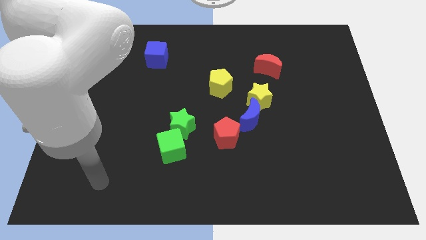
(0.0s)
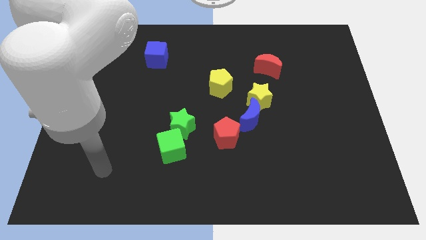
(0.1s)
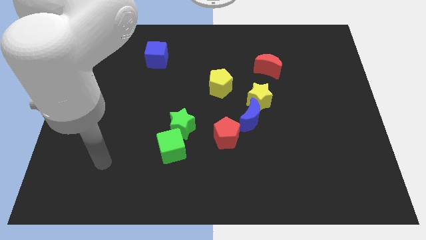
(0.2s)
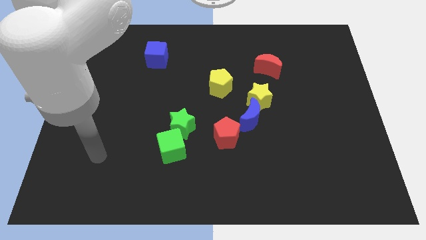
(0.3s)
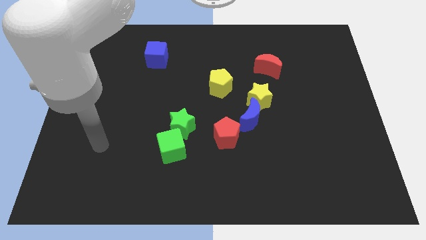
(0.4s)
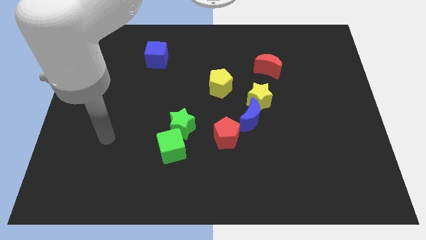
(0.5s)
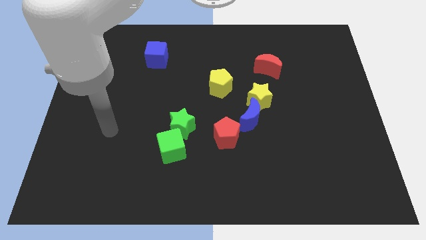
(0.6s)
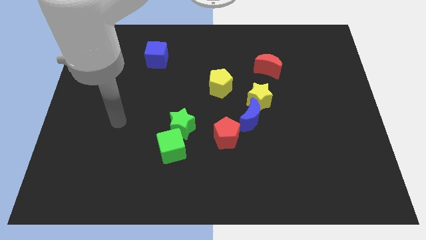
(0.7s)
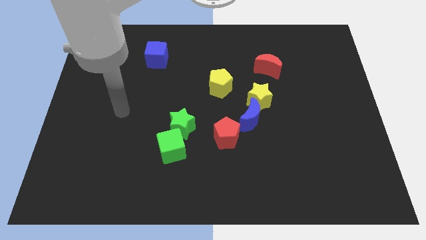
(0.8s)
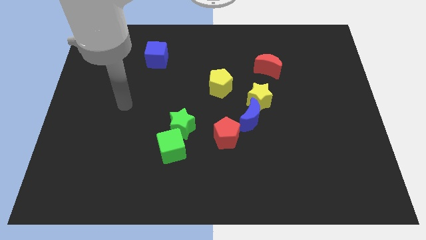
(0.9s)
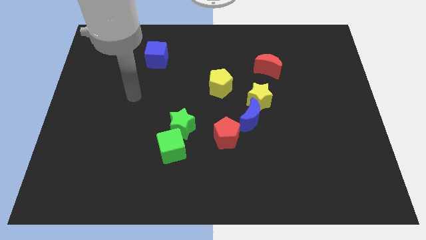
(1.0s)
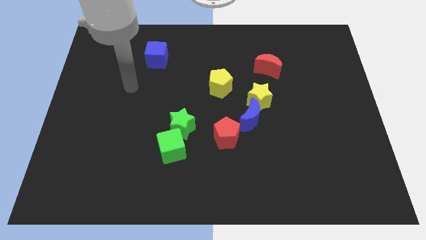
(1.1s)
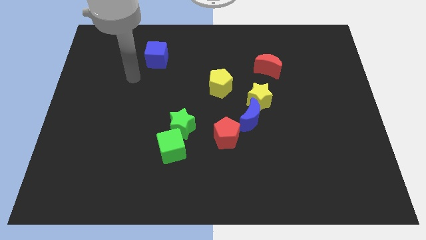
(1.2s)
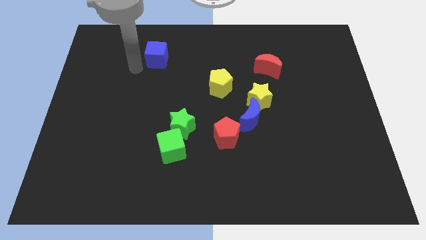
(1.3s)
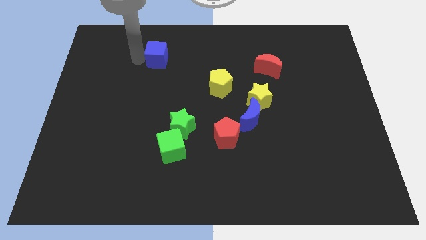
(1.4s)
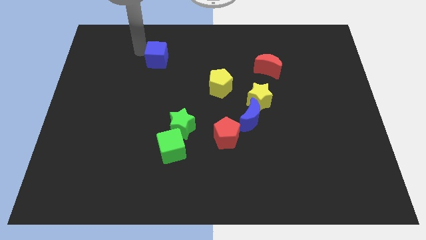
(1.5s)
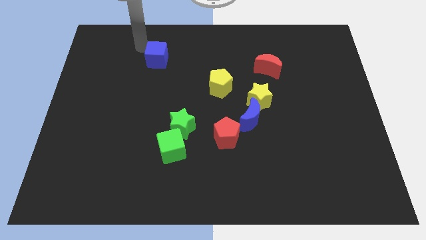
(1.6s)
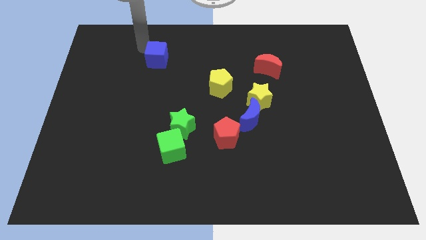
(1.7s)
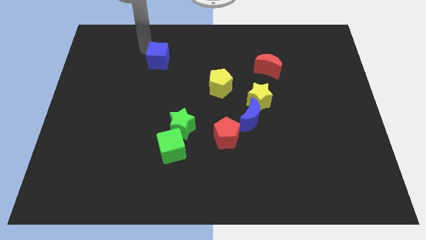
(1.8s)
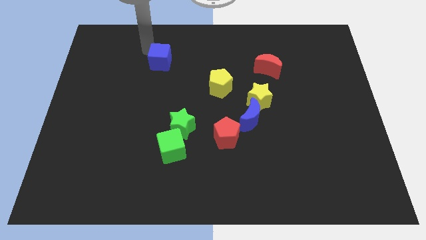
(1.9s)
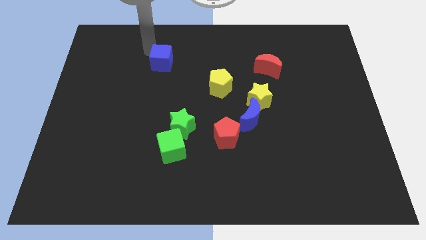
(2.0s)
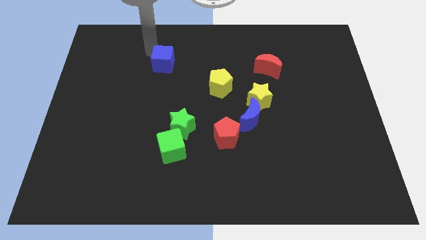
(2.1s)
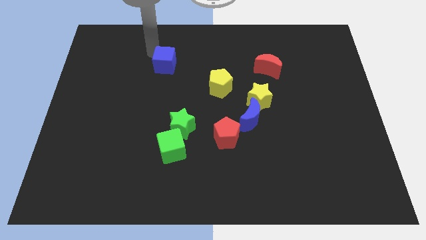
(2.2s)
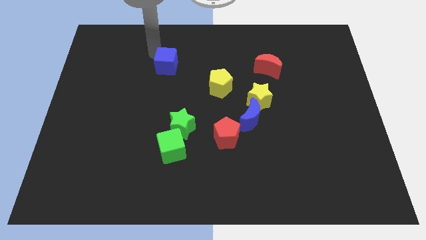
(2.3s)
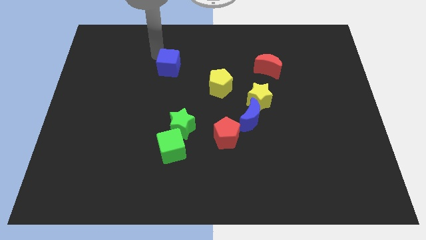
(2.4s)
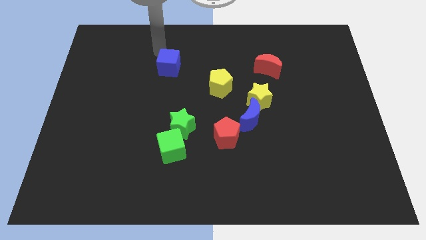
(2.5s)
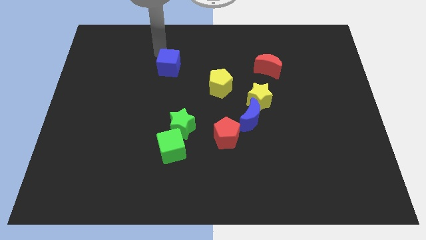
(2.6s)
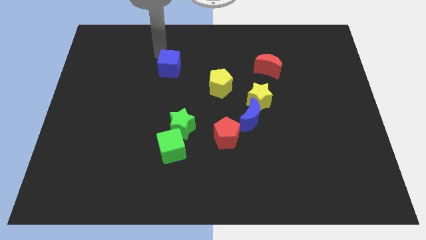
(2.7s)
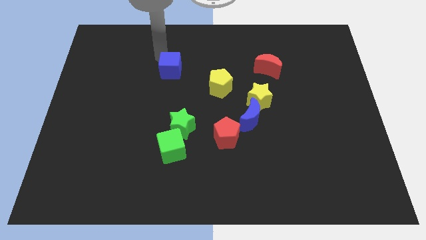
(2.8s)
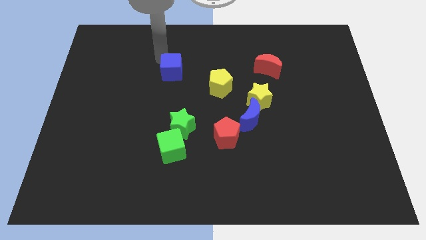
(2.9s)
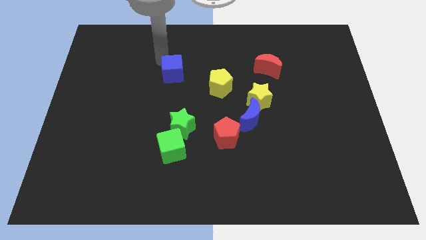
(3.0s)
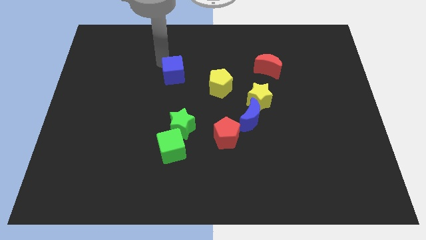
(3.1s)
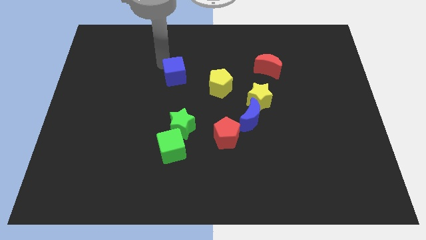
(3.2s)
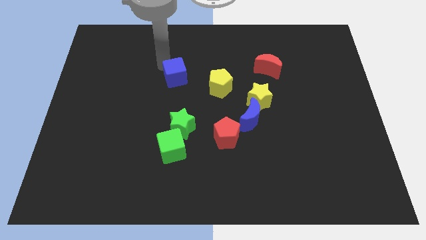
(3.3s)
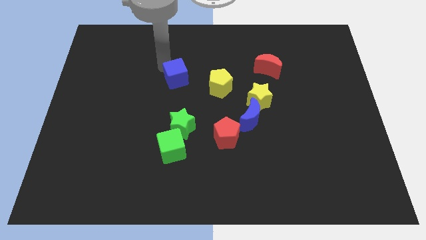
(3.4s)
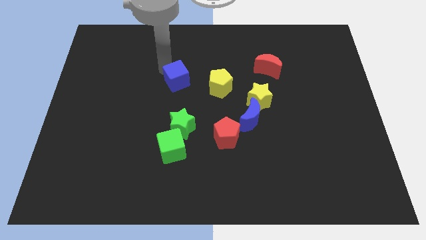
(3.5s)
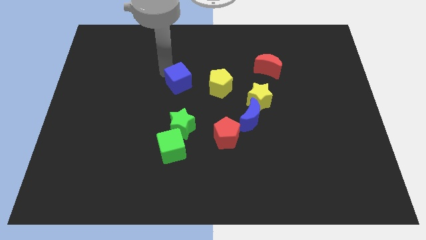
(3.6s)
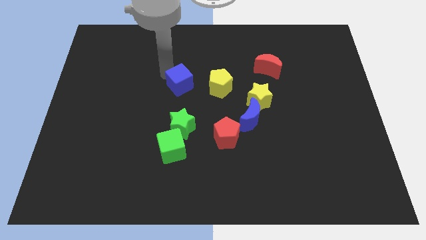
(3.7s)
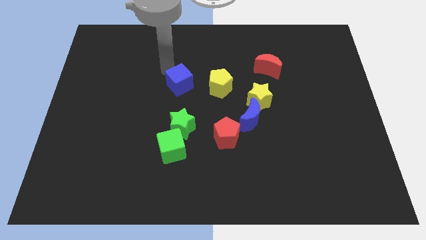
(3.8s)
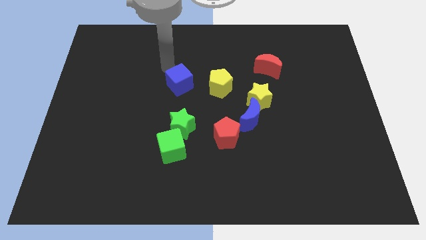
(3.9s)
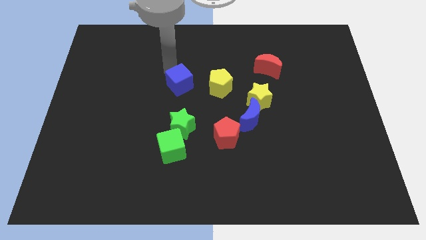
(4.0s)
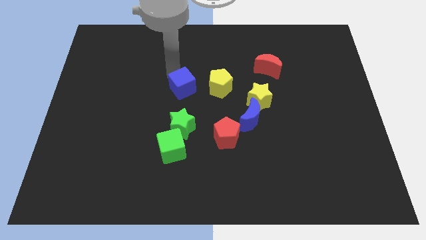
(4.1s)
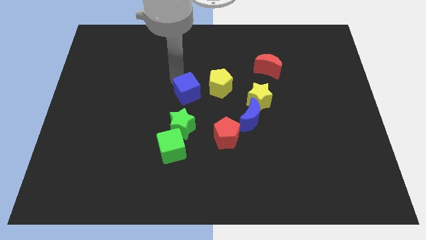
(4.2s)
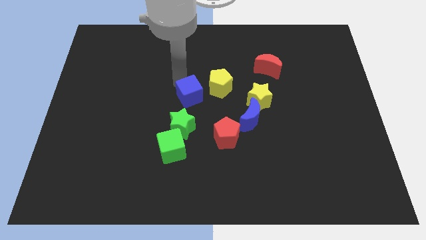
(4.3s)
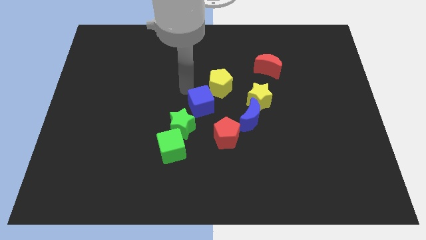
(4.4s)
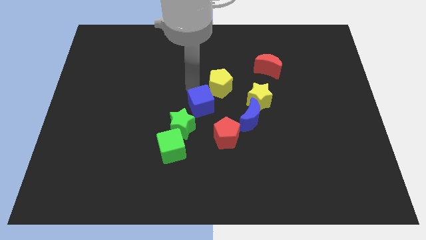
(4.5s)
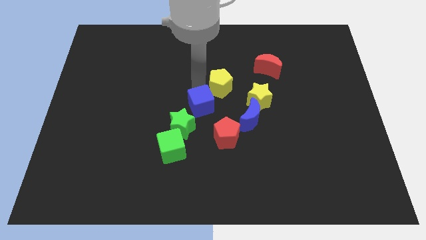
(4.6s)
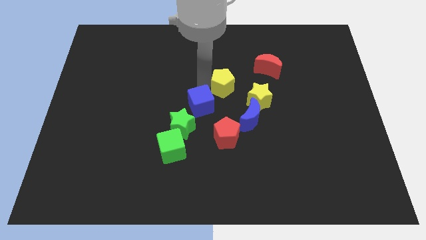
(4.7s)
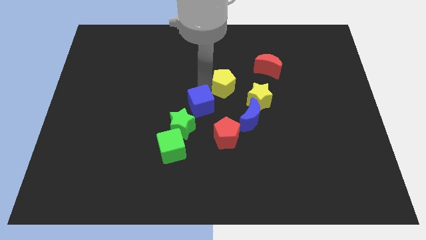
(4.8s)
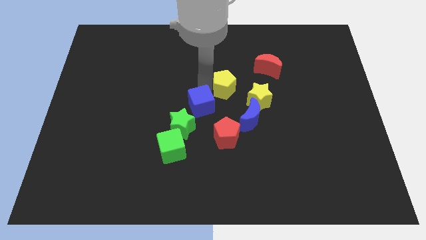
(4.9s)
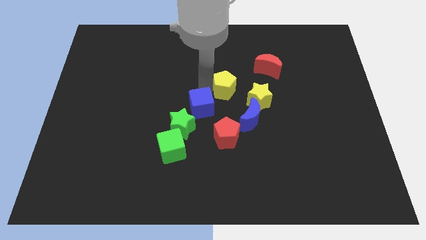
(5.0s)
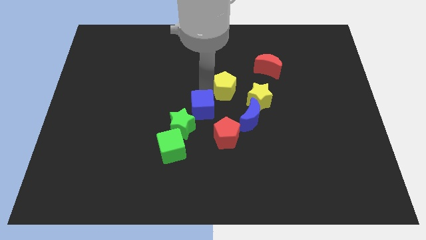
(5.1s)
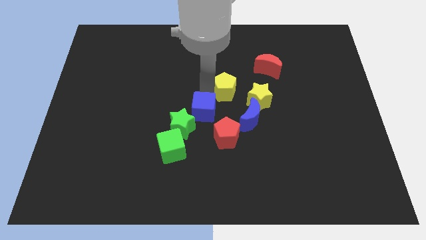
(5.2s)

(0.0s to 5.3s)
move the blue cube to the top right of the green cube

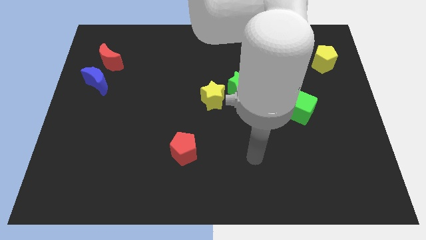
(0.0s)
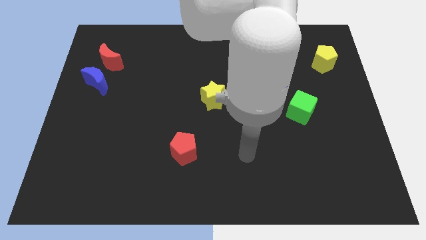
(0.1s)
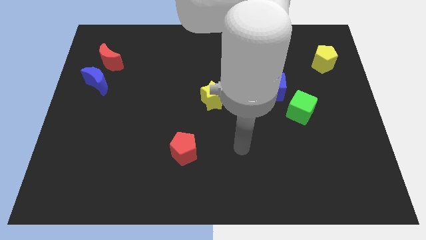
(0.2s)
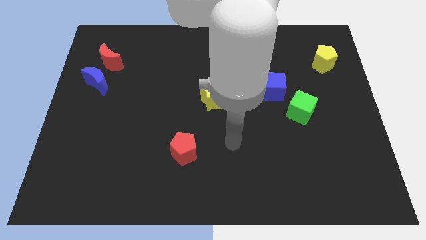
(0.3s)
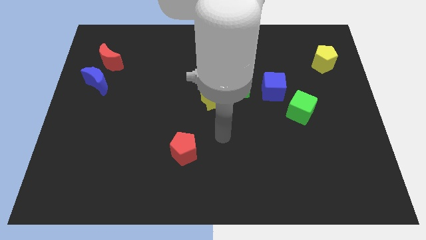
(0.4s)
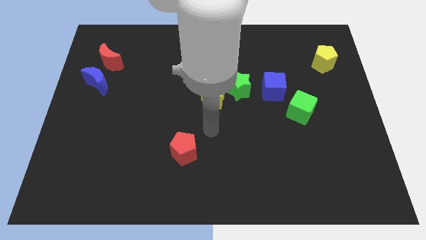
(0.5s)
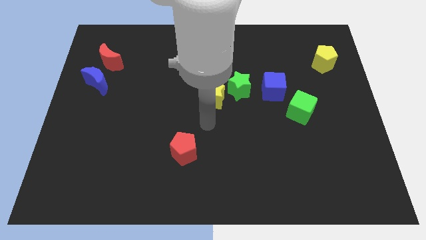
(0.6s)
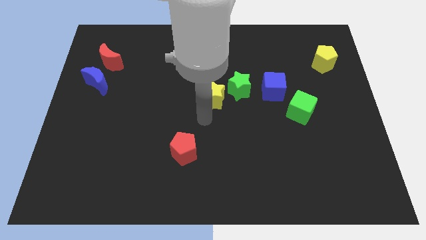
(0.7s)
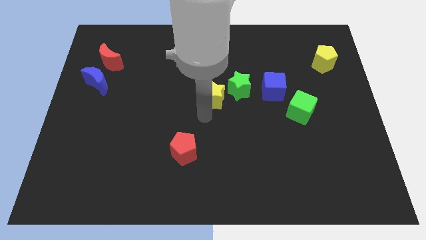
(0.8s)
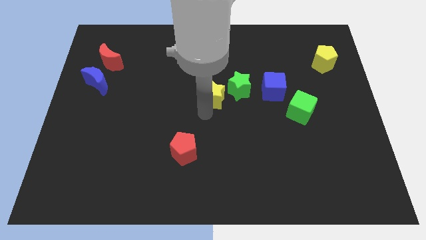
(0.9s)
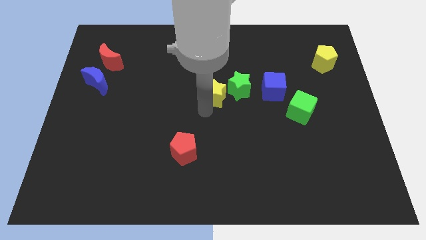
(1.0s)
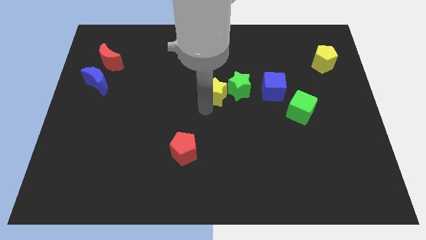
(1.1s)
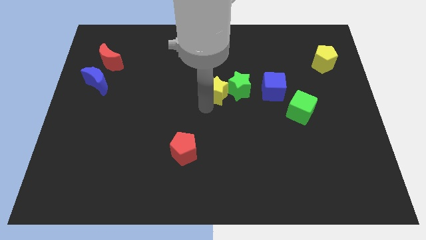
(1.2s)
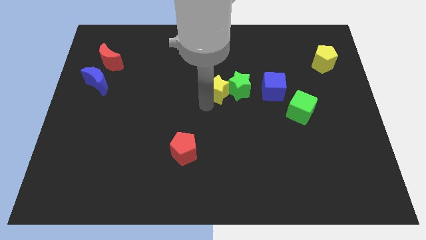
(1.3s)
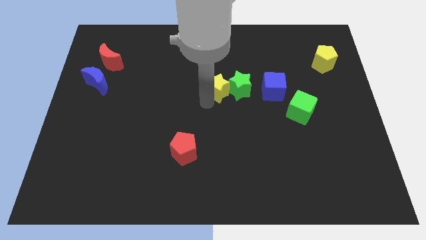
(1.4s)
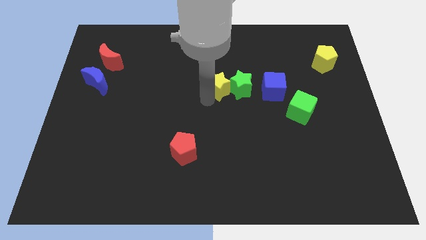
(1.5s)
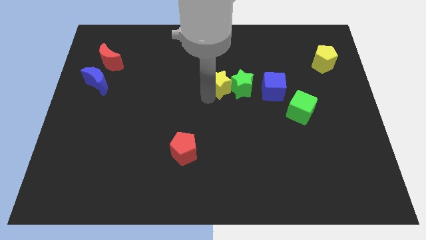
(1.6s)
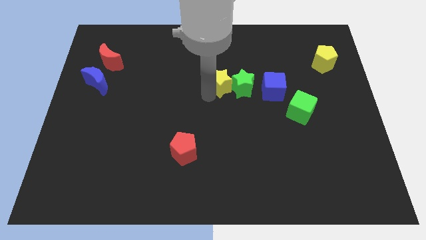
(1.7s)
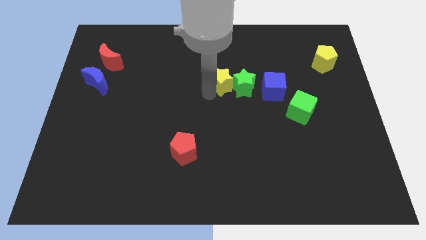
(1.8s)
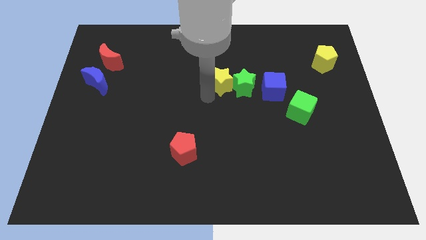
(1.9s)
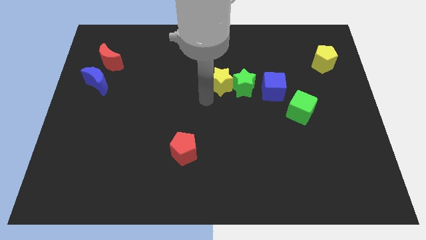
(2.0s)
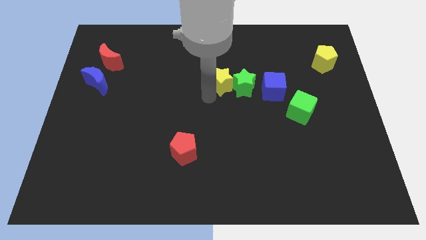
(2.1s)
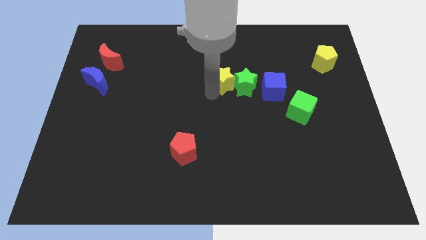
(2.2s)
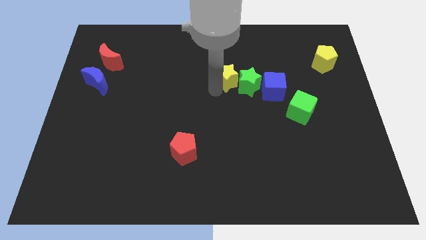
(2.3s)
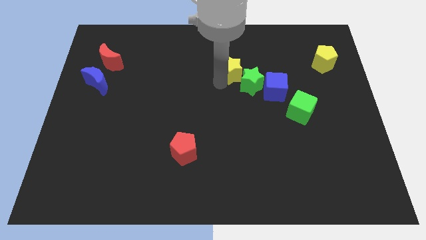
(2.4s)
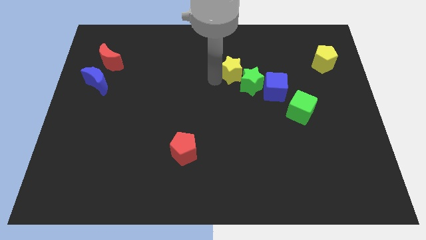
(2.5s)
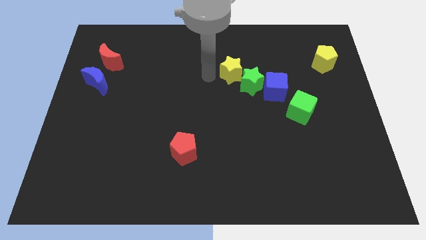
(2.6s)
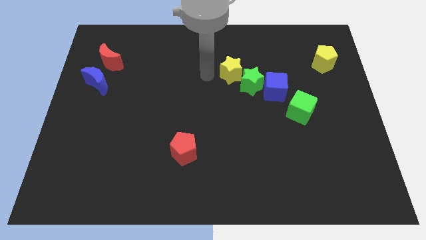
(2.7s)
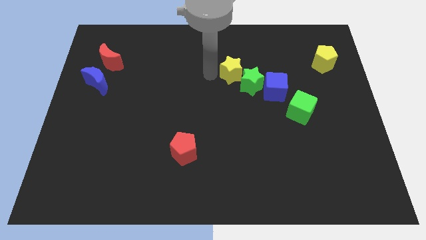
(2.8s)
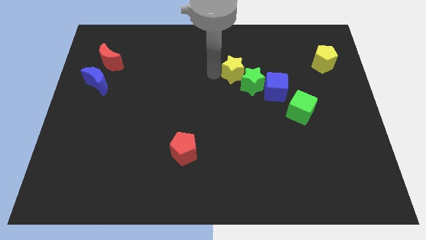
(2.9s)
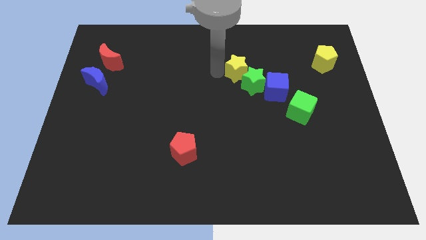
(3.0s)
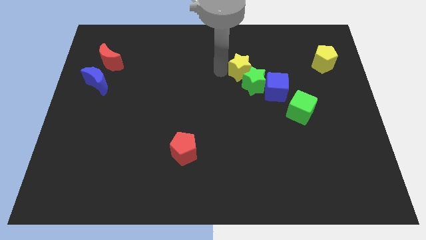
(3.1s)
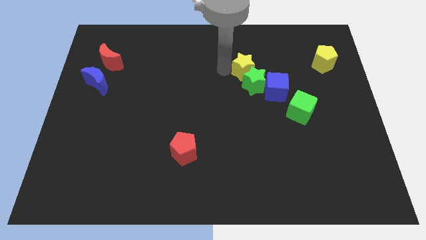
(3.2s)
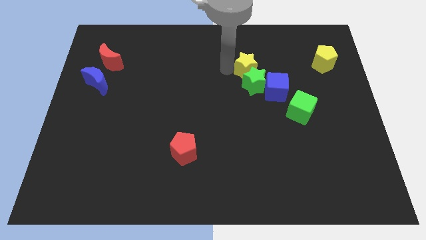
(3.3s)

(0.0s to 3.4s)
move the yellow star diagonally up and to the right of the green star
